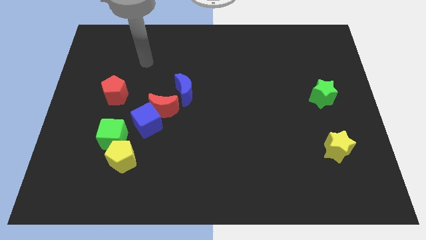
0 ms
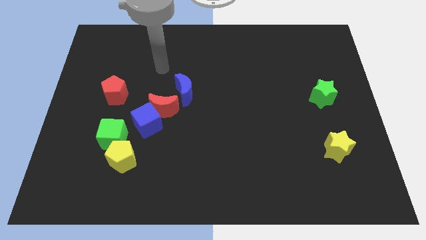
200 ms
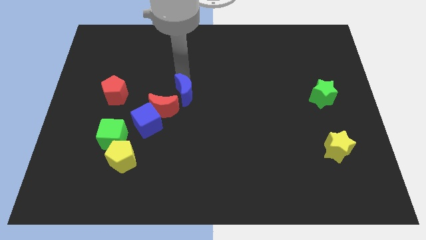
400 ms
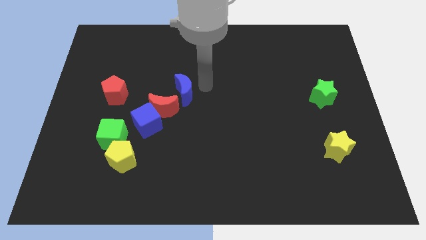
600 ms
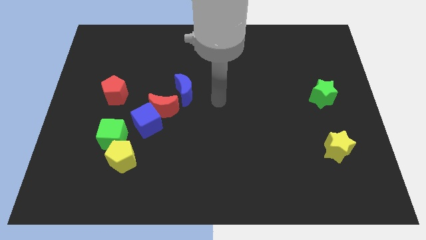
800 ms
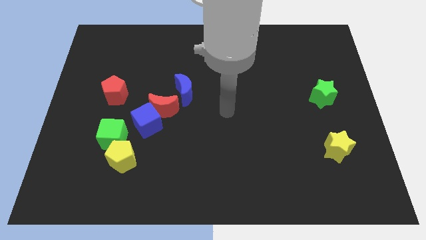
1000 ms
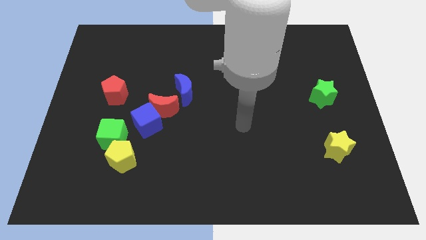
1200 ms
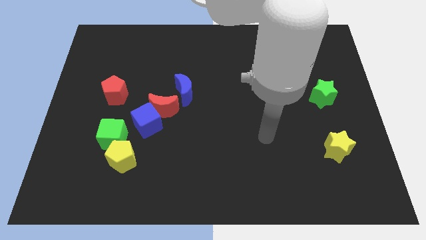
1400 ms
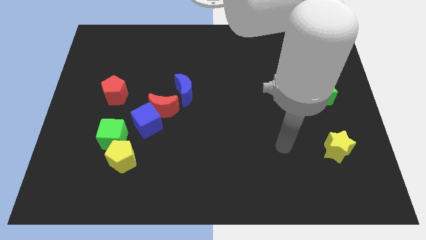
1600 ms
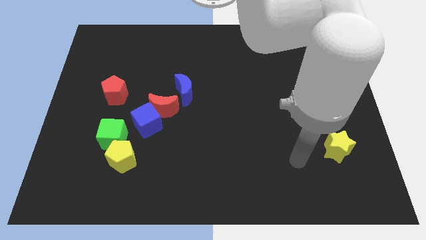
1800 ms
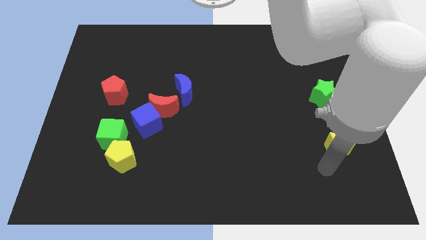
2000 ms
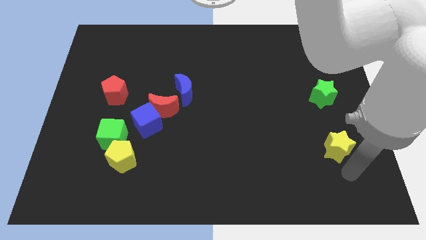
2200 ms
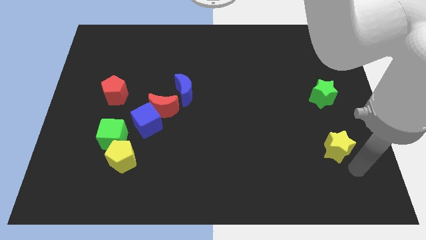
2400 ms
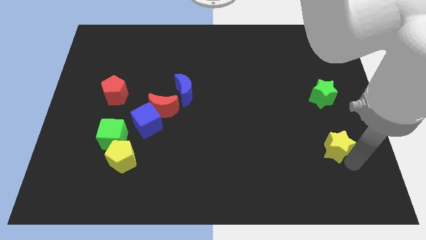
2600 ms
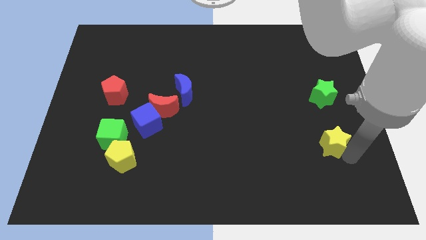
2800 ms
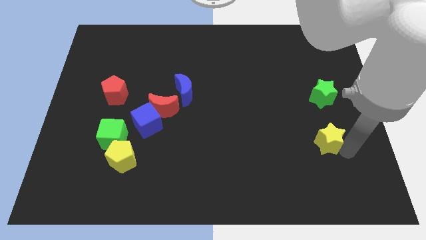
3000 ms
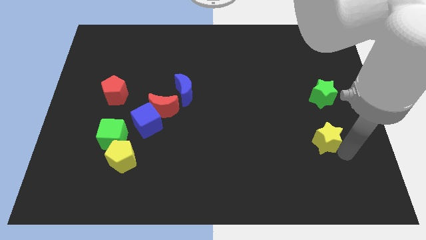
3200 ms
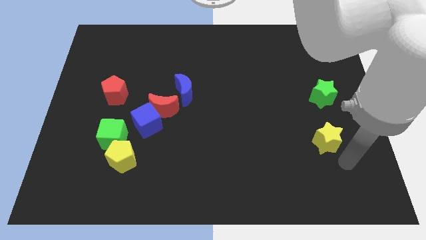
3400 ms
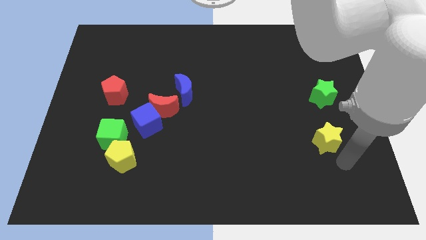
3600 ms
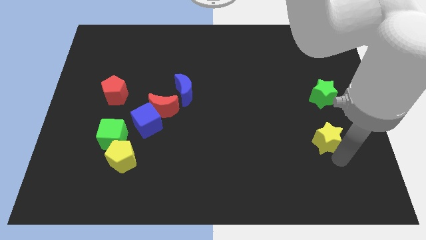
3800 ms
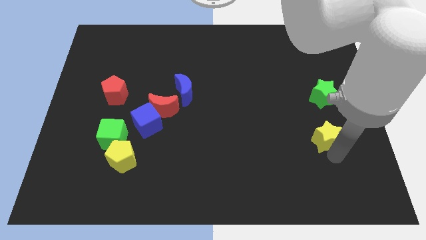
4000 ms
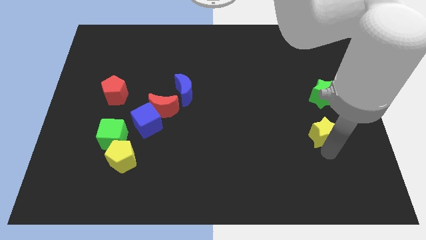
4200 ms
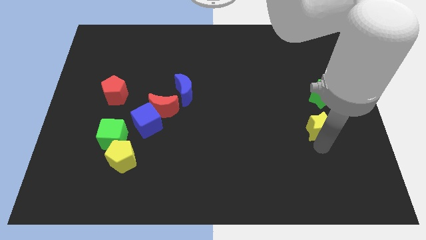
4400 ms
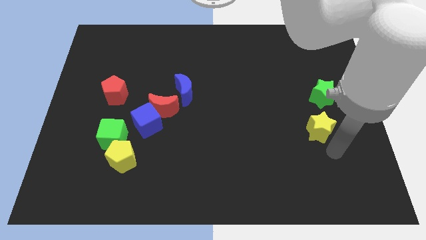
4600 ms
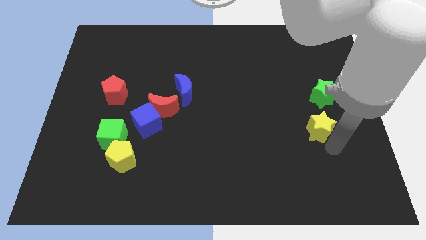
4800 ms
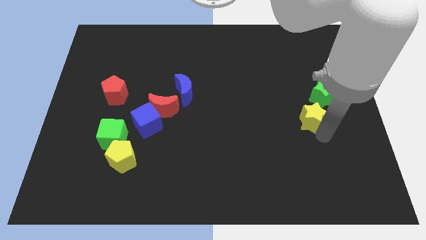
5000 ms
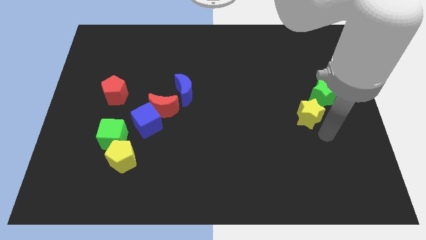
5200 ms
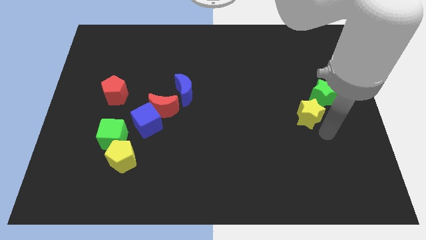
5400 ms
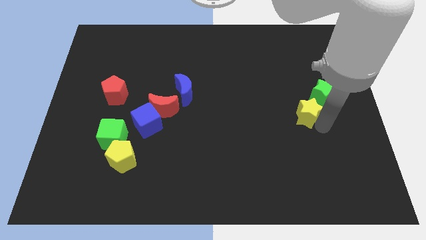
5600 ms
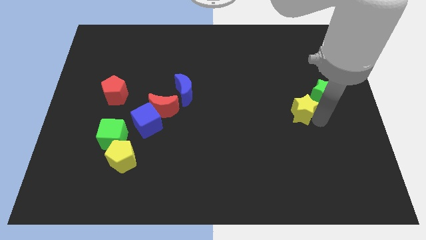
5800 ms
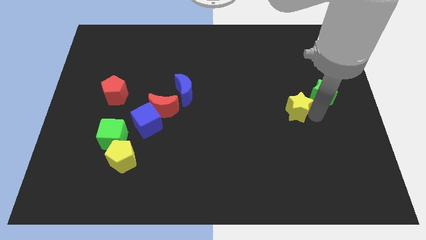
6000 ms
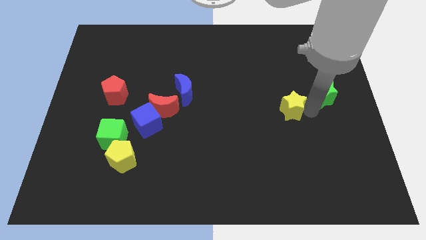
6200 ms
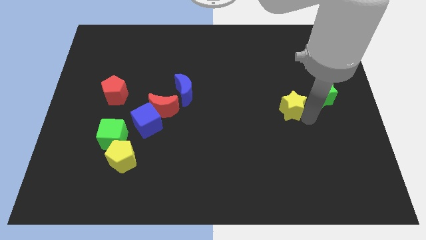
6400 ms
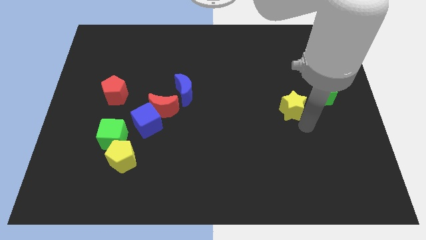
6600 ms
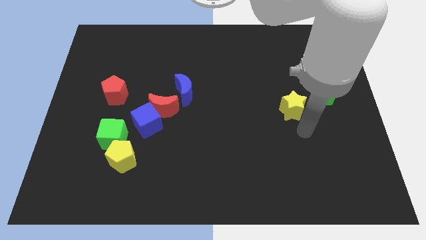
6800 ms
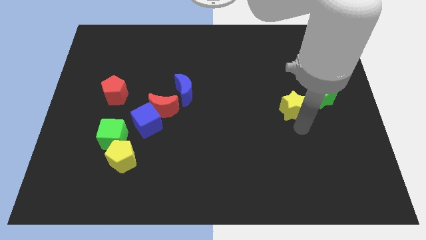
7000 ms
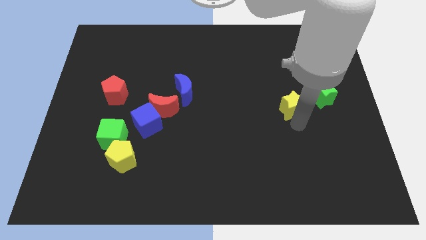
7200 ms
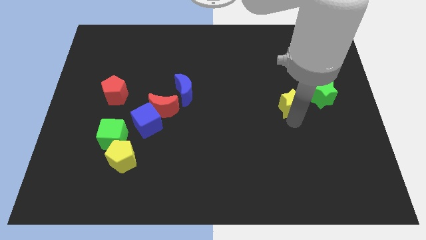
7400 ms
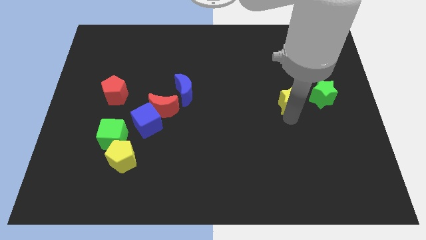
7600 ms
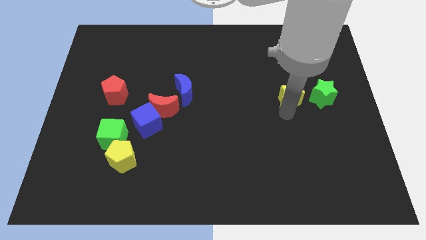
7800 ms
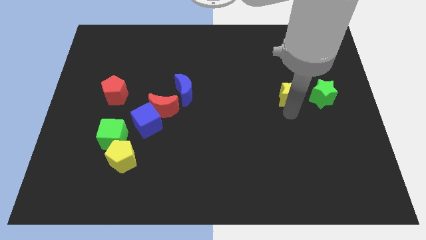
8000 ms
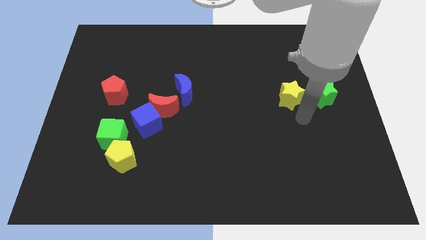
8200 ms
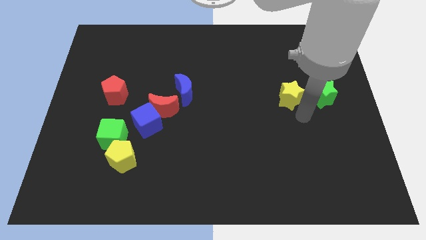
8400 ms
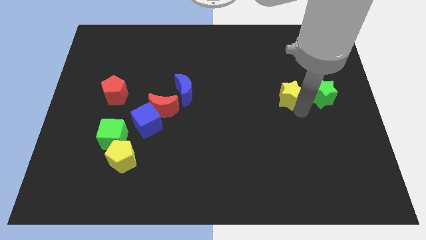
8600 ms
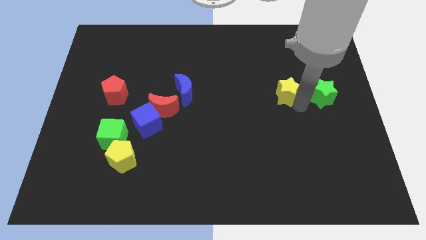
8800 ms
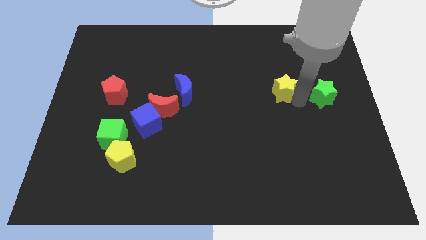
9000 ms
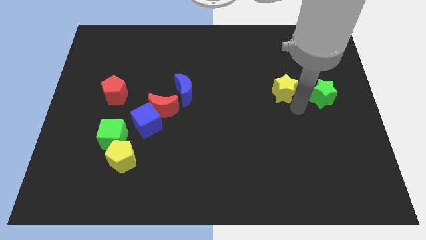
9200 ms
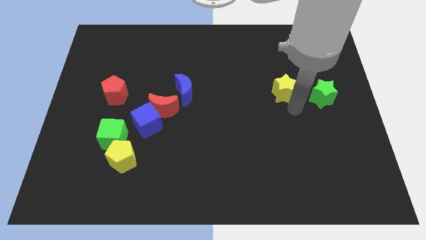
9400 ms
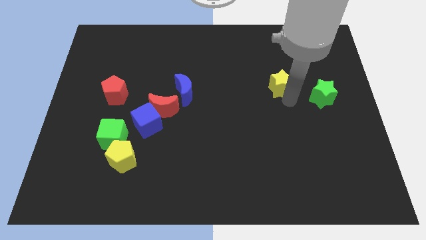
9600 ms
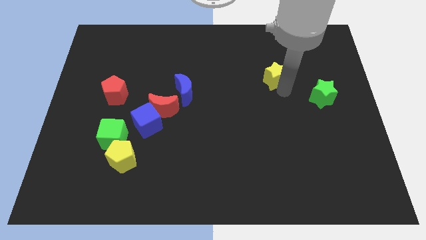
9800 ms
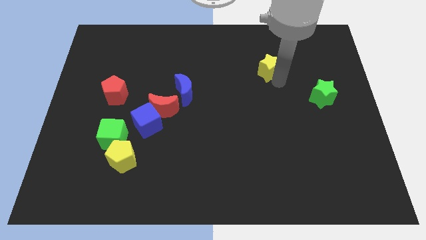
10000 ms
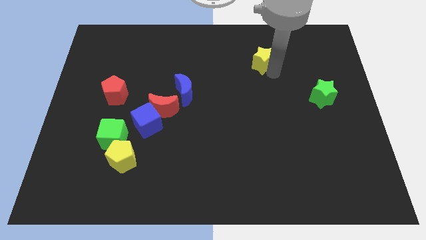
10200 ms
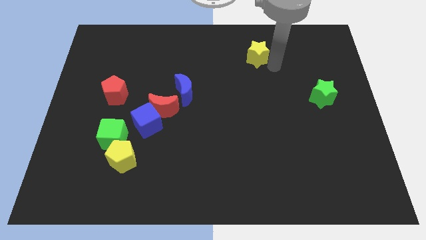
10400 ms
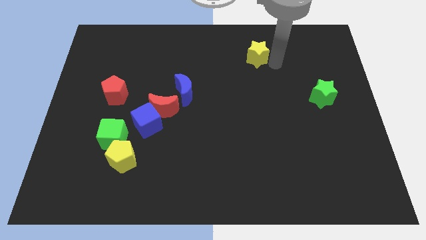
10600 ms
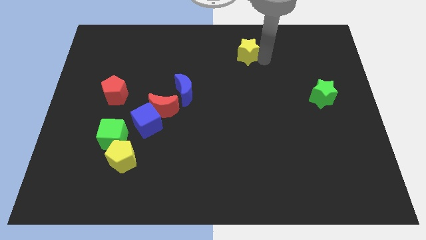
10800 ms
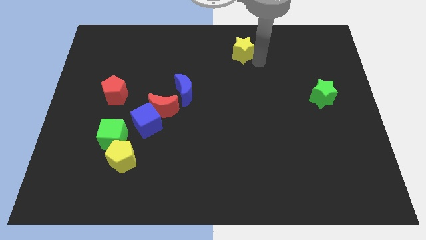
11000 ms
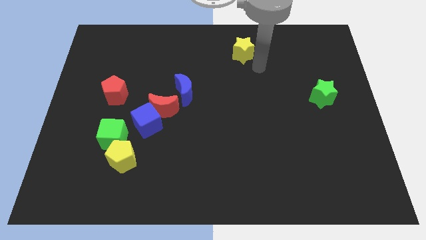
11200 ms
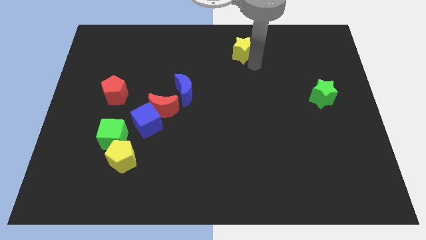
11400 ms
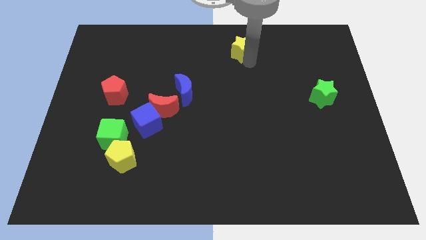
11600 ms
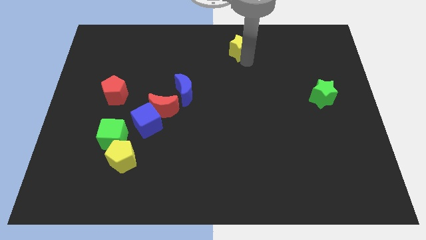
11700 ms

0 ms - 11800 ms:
move the yellow star to the top
